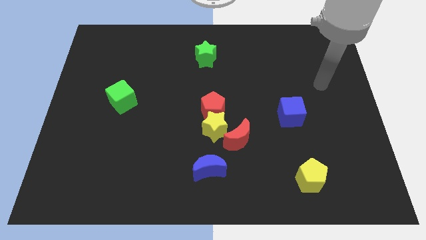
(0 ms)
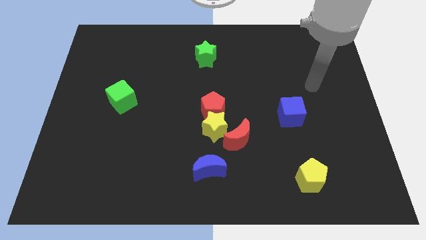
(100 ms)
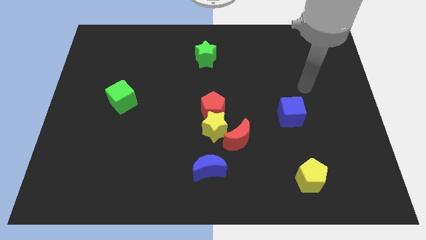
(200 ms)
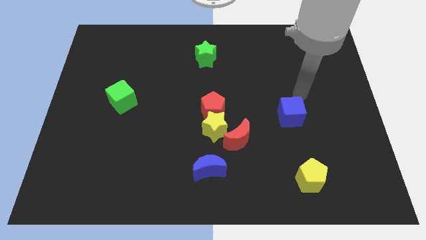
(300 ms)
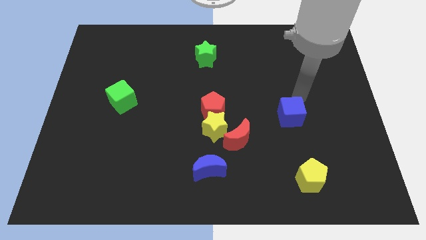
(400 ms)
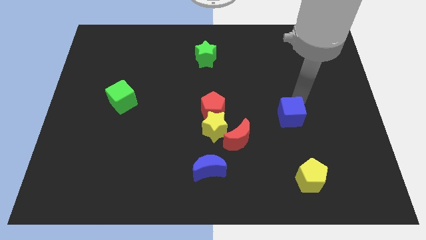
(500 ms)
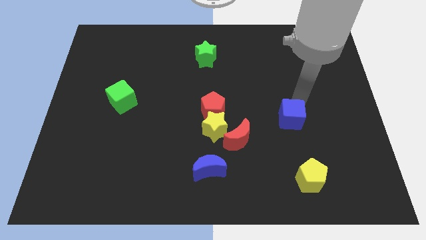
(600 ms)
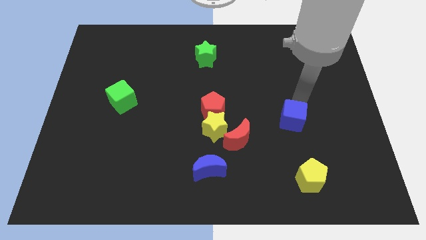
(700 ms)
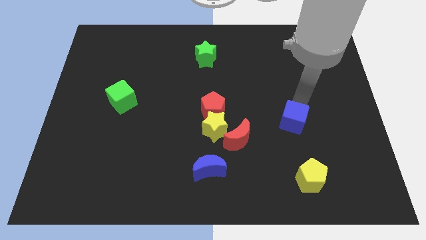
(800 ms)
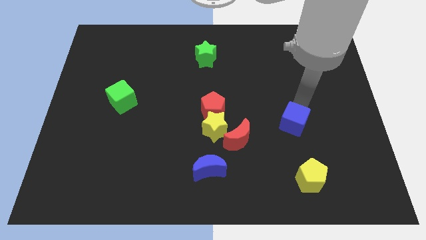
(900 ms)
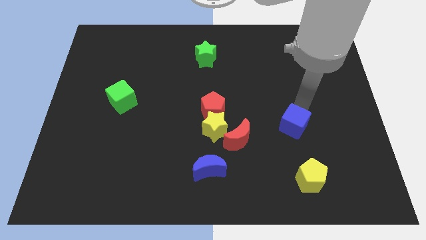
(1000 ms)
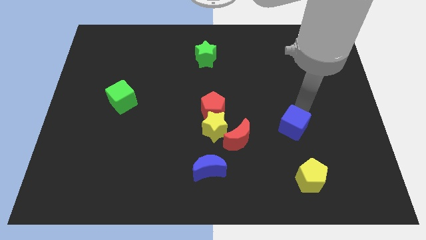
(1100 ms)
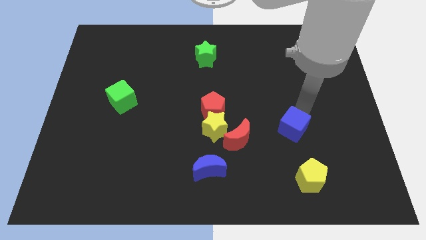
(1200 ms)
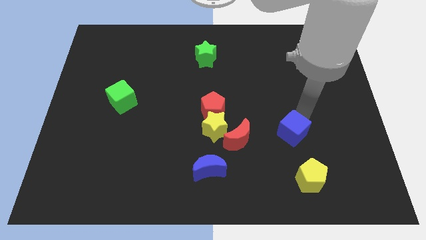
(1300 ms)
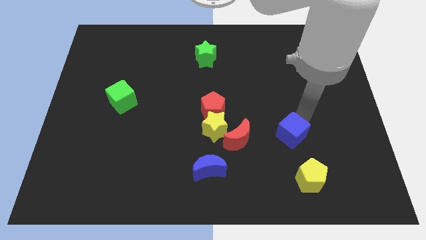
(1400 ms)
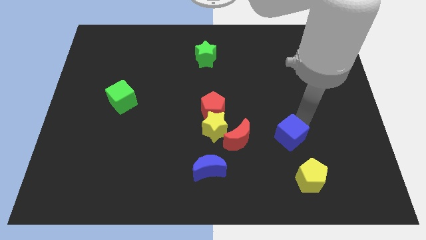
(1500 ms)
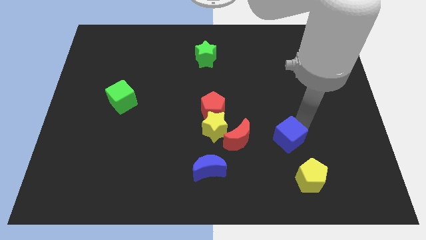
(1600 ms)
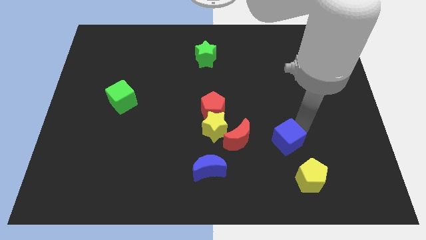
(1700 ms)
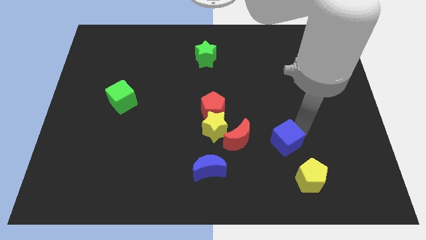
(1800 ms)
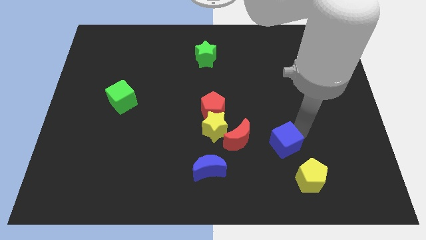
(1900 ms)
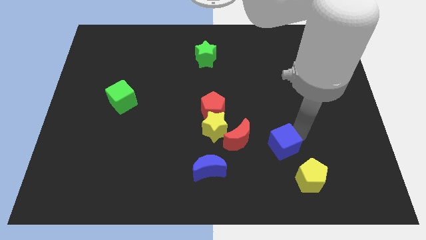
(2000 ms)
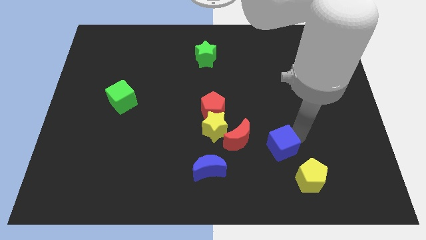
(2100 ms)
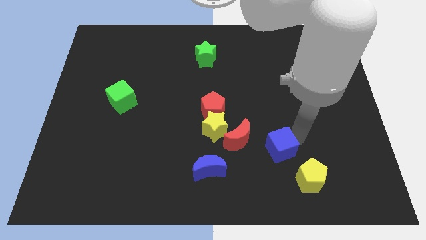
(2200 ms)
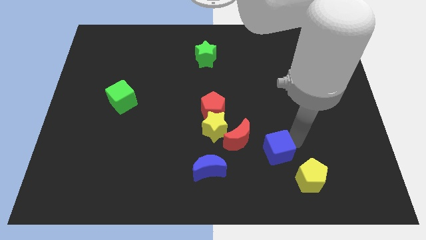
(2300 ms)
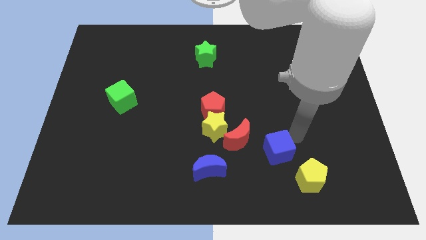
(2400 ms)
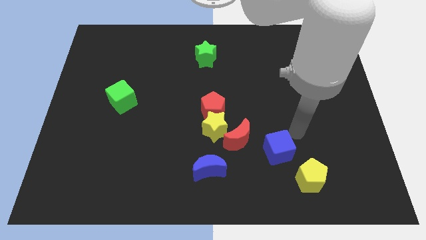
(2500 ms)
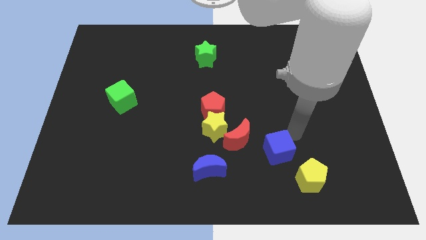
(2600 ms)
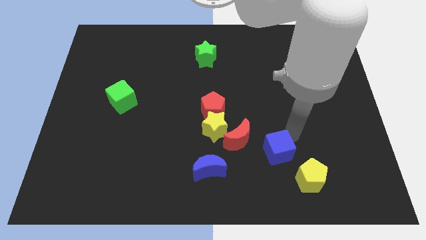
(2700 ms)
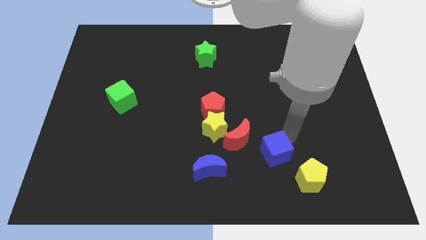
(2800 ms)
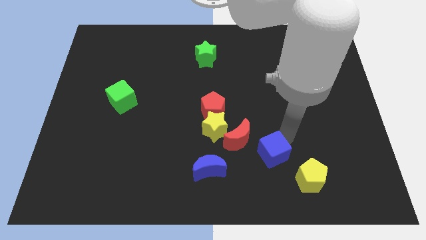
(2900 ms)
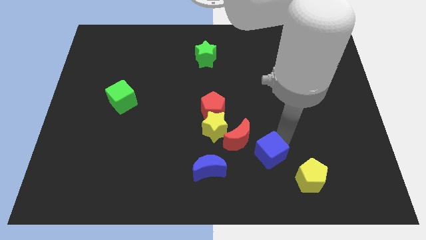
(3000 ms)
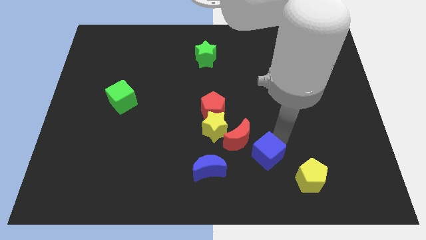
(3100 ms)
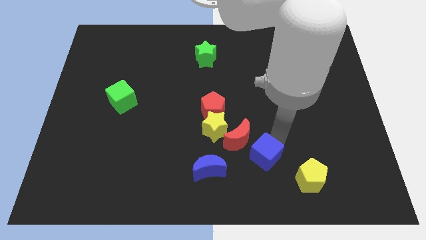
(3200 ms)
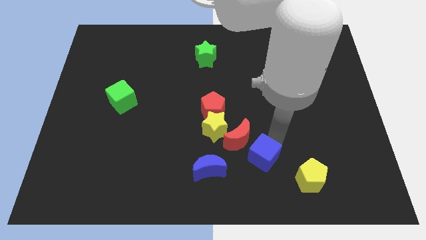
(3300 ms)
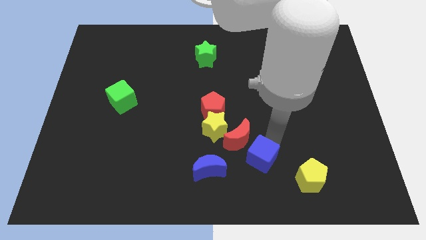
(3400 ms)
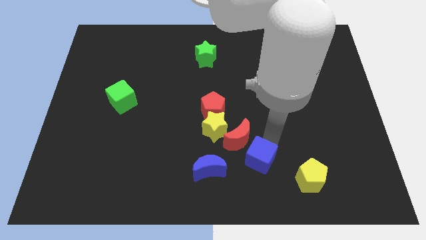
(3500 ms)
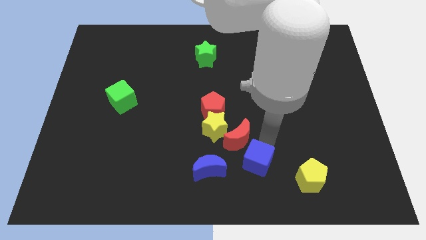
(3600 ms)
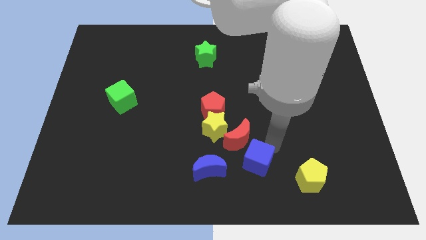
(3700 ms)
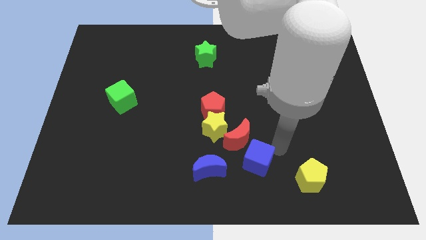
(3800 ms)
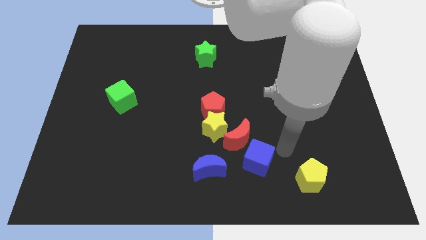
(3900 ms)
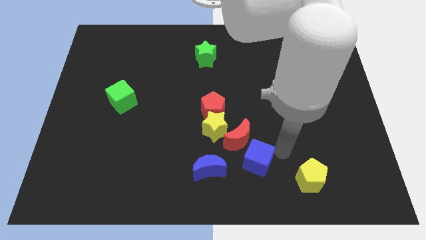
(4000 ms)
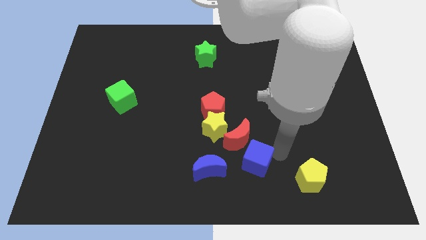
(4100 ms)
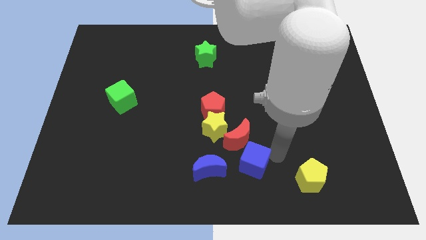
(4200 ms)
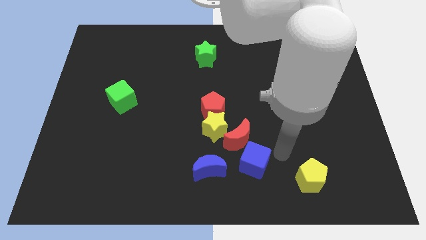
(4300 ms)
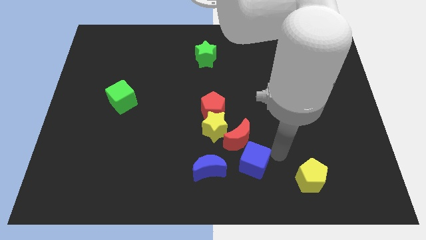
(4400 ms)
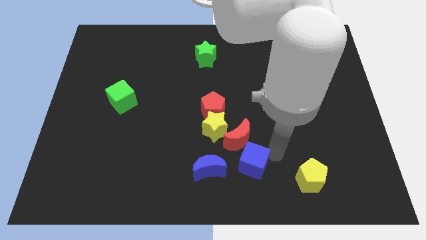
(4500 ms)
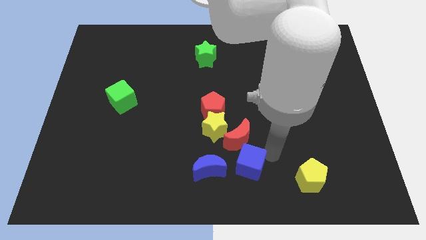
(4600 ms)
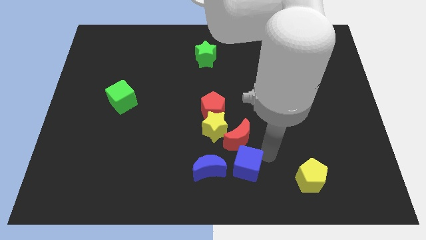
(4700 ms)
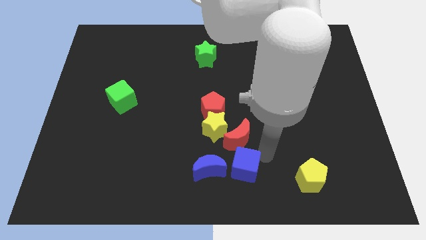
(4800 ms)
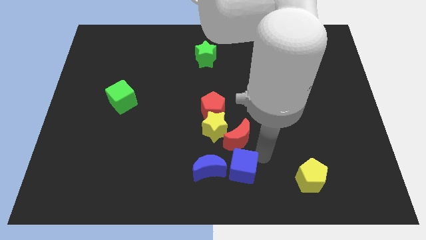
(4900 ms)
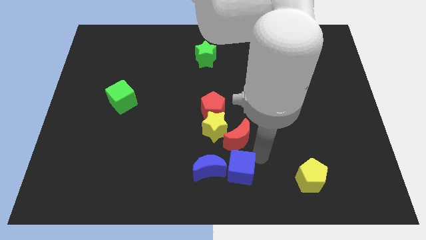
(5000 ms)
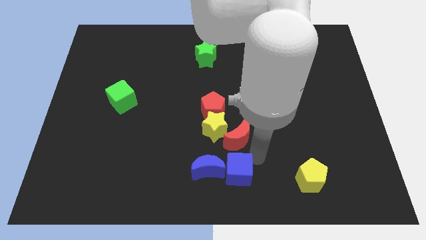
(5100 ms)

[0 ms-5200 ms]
move the blue cube close to the blue moon

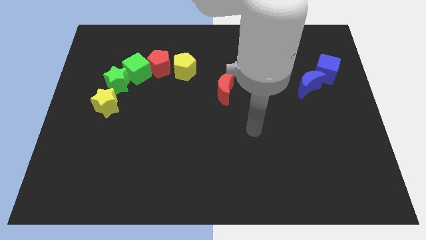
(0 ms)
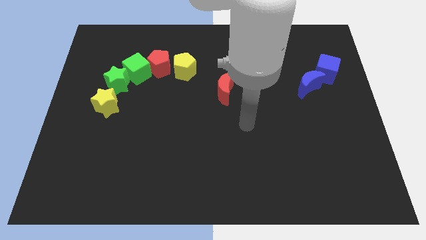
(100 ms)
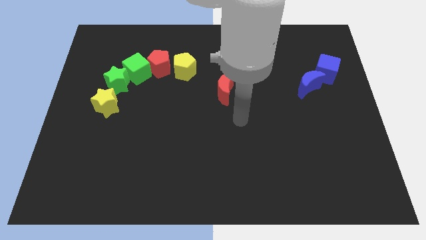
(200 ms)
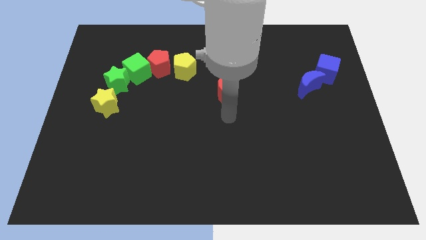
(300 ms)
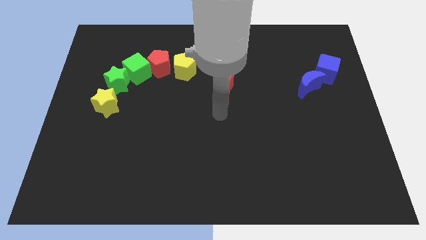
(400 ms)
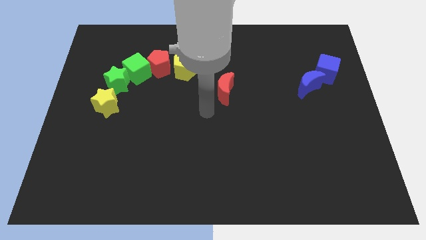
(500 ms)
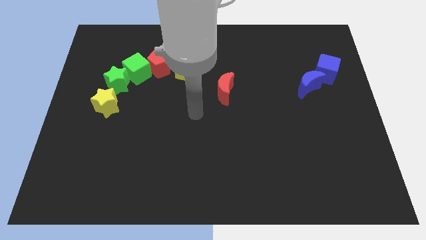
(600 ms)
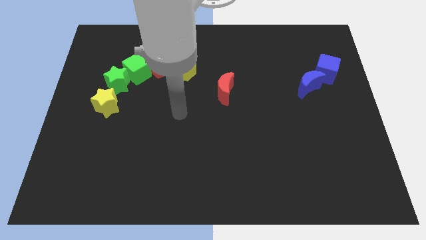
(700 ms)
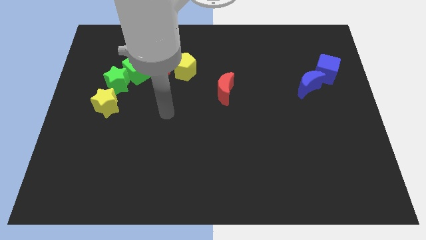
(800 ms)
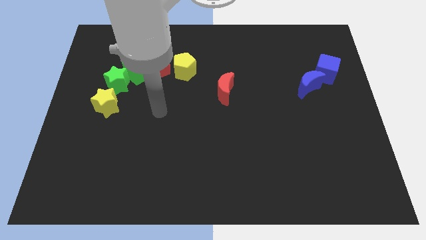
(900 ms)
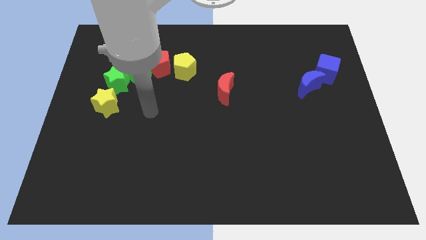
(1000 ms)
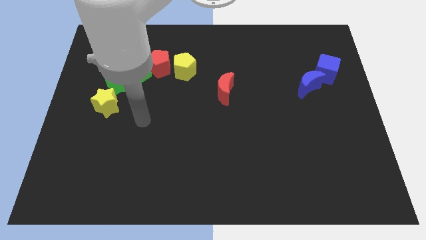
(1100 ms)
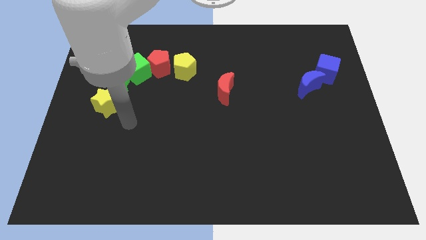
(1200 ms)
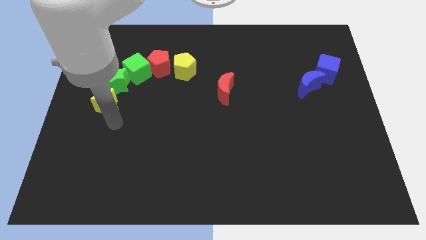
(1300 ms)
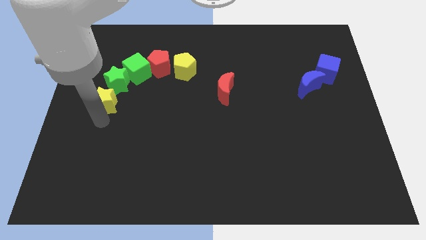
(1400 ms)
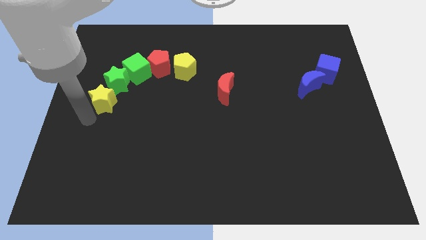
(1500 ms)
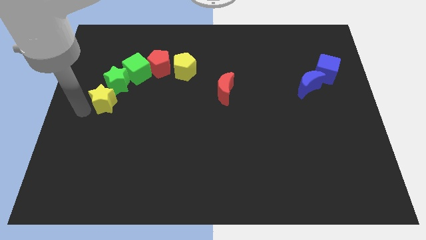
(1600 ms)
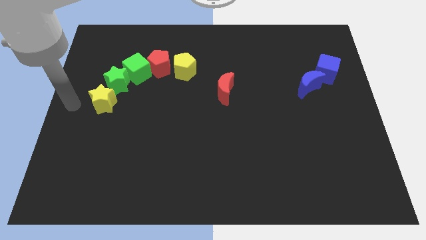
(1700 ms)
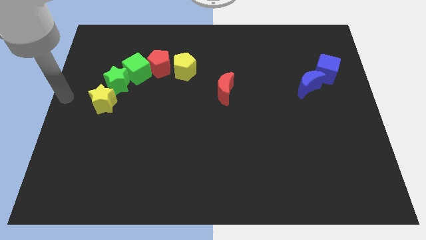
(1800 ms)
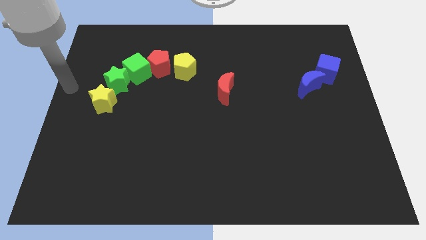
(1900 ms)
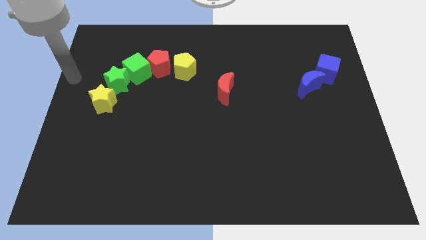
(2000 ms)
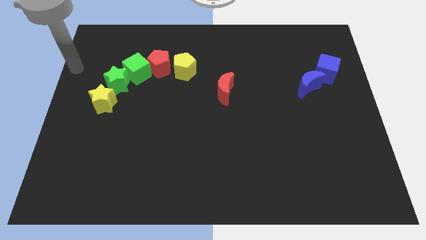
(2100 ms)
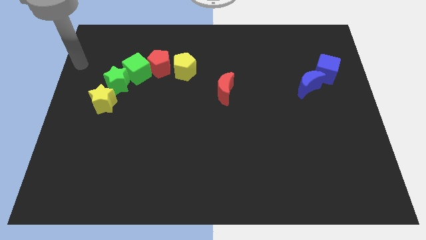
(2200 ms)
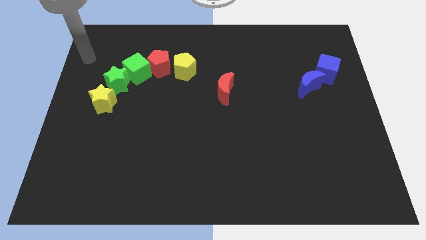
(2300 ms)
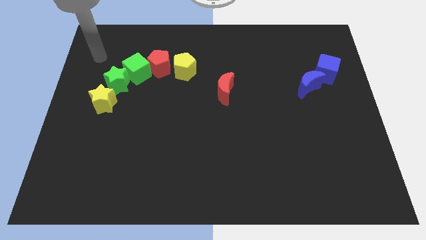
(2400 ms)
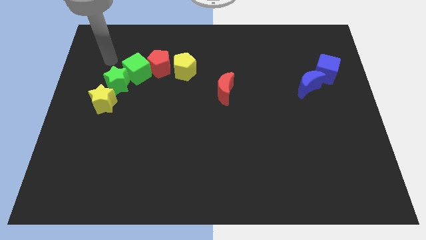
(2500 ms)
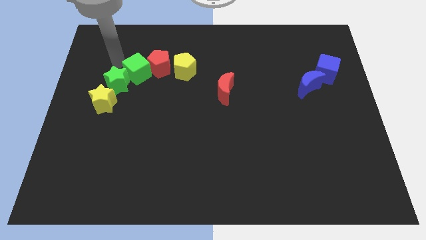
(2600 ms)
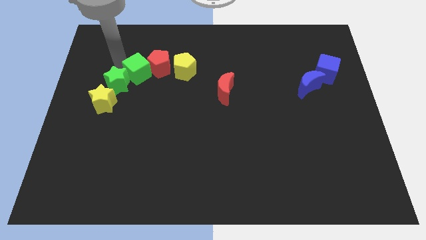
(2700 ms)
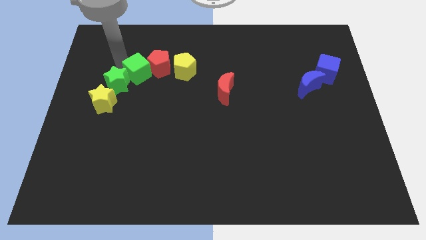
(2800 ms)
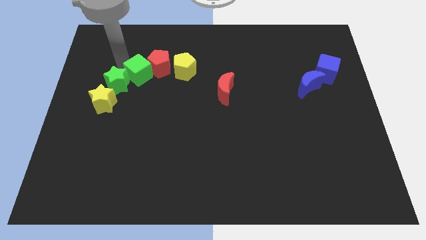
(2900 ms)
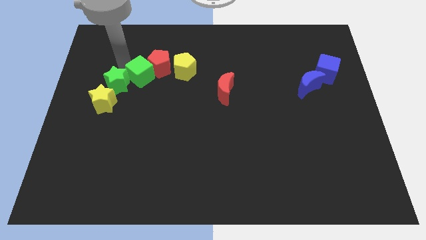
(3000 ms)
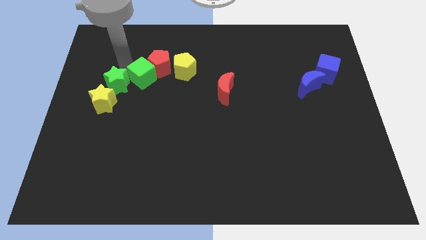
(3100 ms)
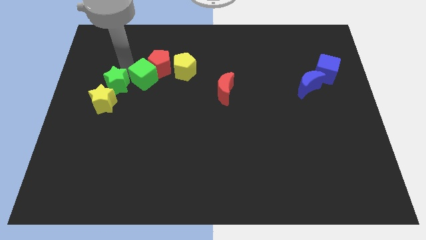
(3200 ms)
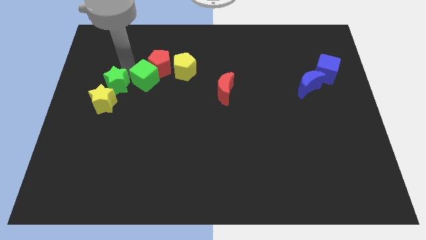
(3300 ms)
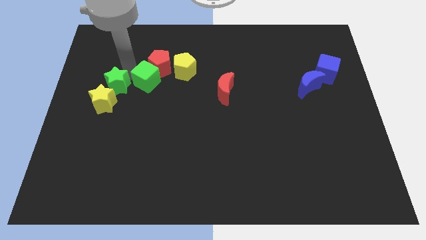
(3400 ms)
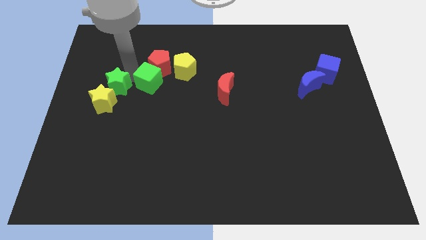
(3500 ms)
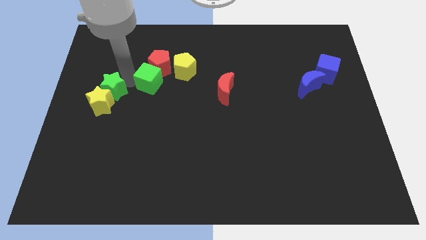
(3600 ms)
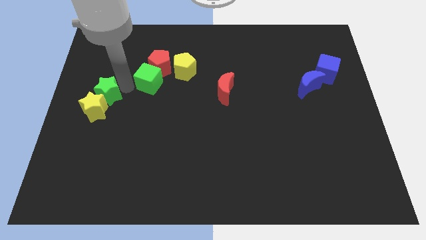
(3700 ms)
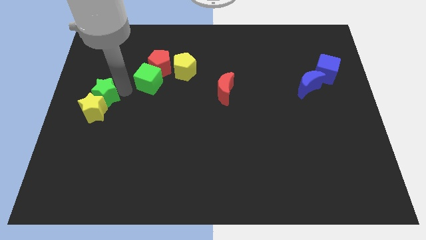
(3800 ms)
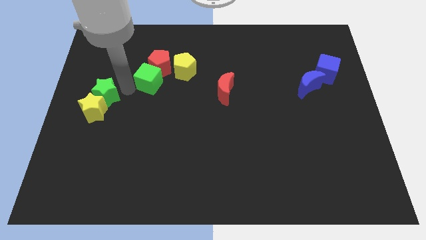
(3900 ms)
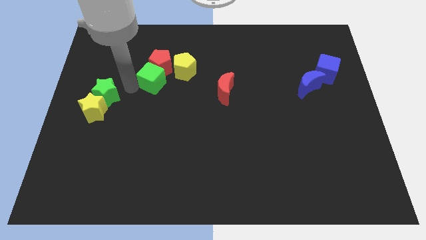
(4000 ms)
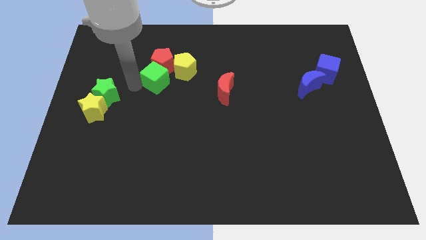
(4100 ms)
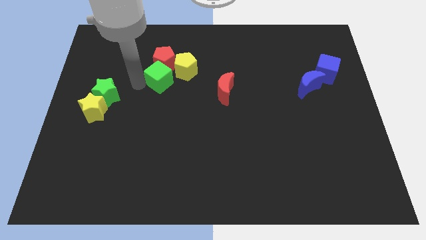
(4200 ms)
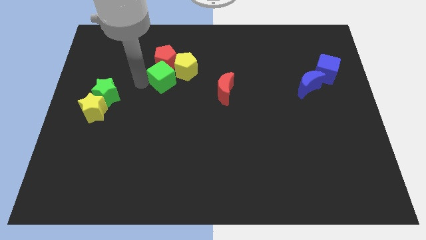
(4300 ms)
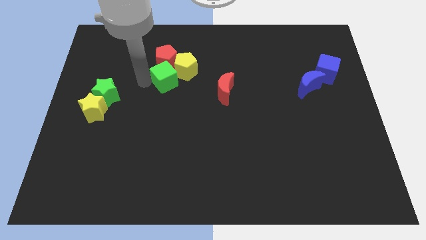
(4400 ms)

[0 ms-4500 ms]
move the green cube towards the yellow pentagon
